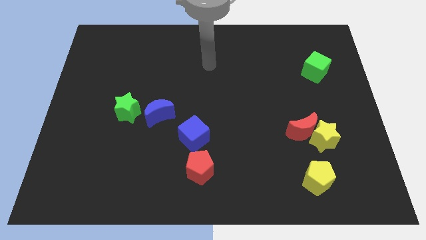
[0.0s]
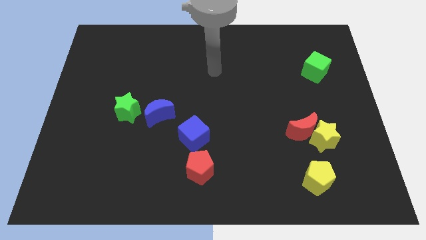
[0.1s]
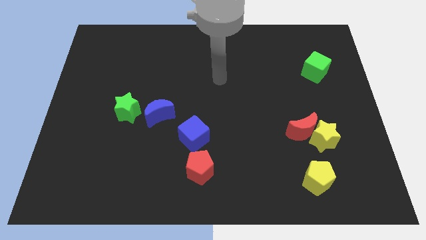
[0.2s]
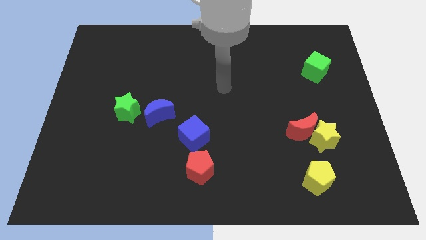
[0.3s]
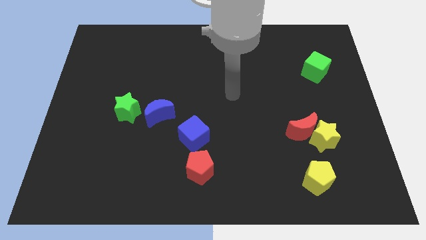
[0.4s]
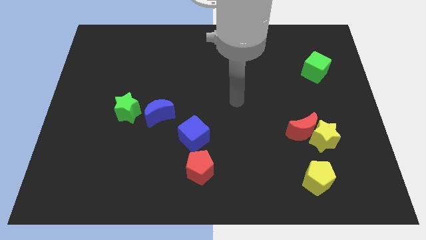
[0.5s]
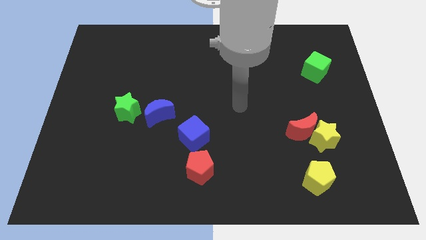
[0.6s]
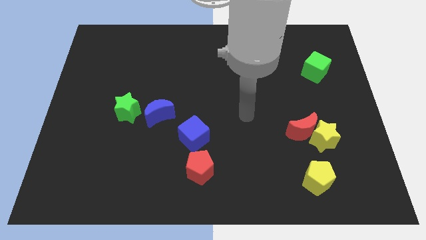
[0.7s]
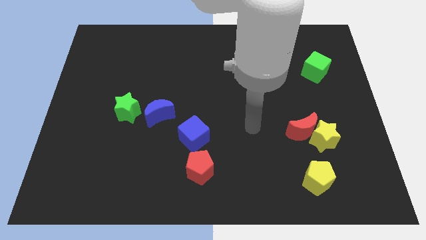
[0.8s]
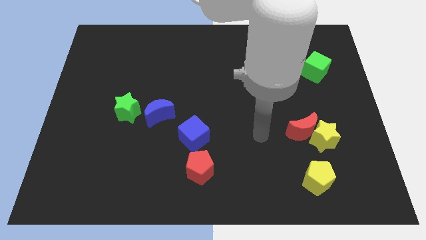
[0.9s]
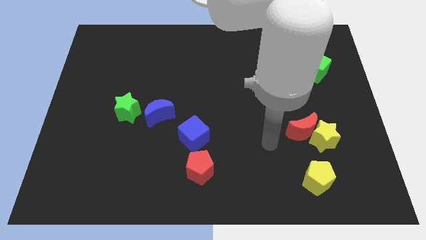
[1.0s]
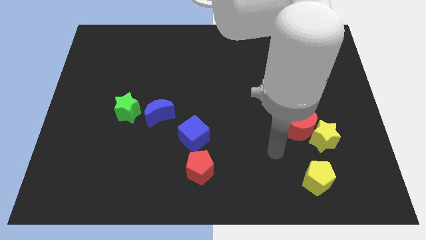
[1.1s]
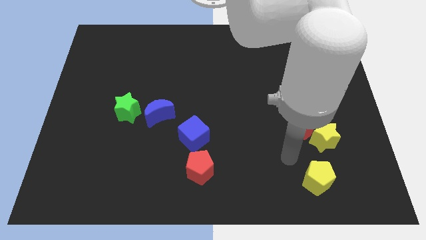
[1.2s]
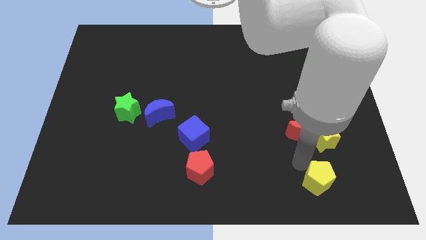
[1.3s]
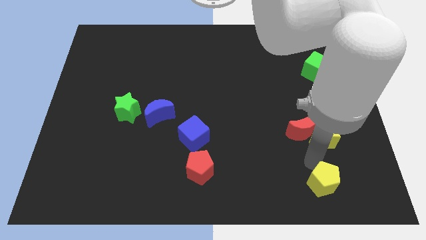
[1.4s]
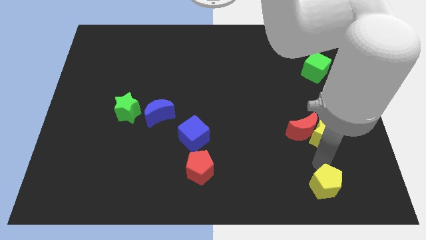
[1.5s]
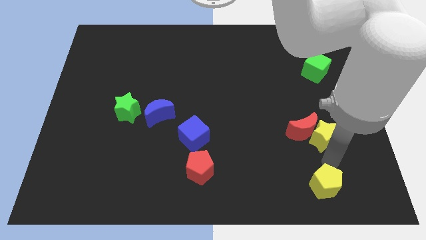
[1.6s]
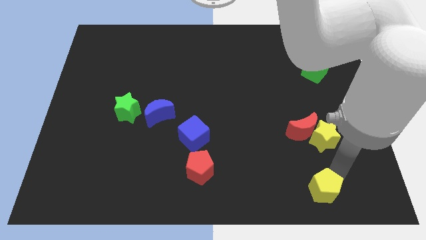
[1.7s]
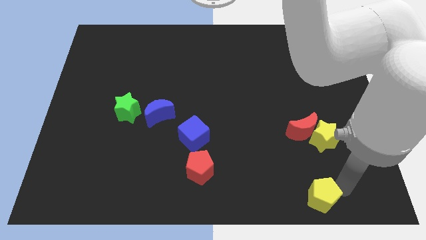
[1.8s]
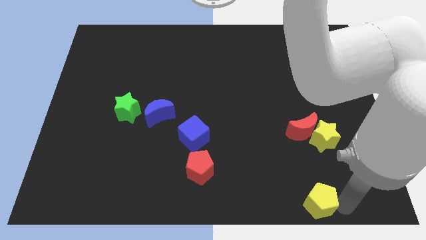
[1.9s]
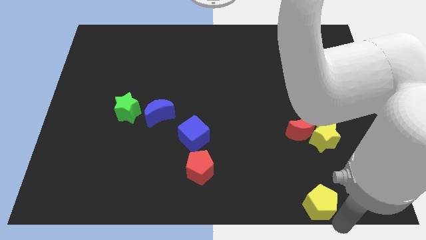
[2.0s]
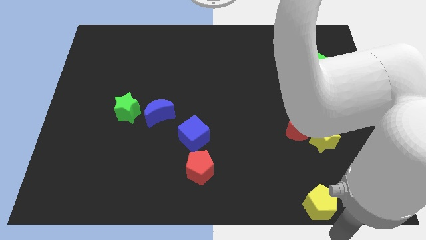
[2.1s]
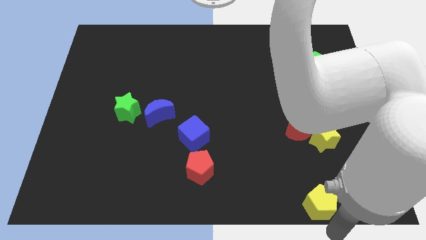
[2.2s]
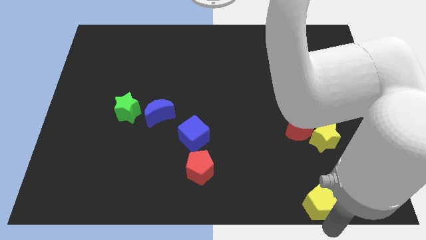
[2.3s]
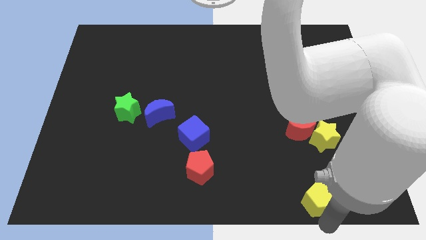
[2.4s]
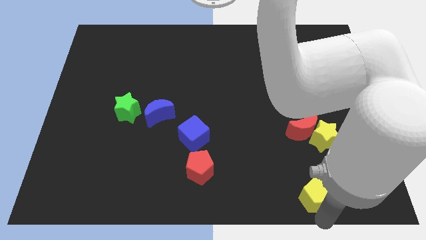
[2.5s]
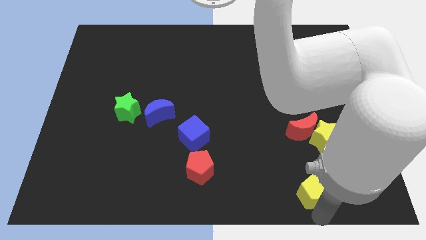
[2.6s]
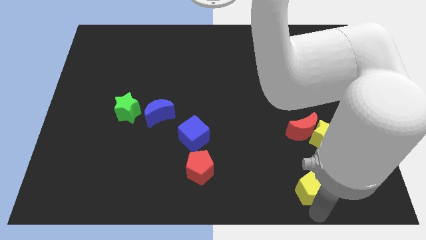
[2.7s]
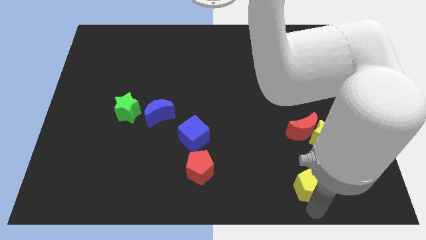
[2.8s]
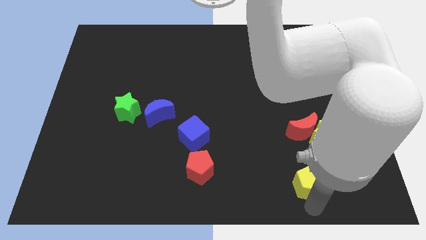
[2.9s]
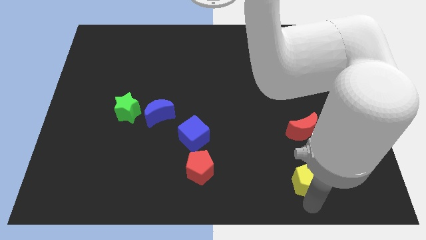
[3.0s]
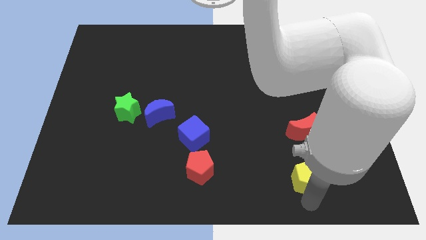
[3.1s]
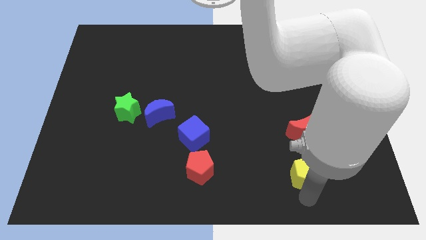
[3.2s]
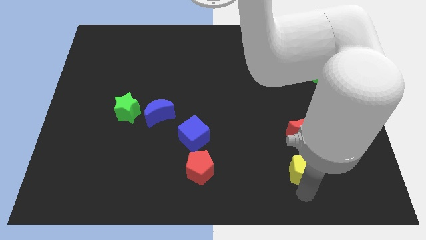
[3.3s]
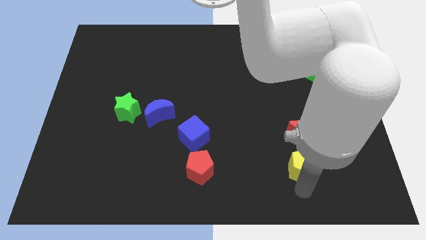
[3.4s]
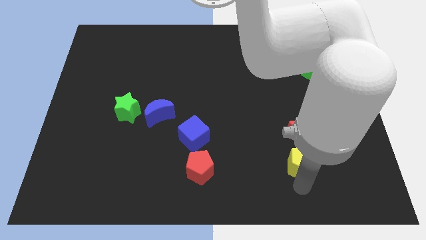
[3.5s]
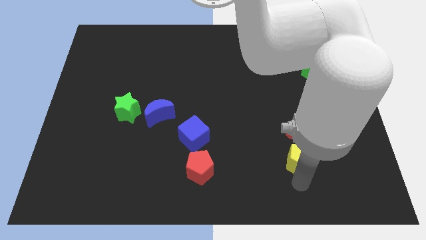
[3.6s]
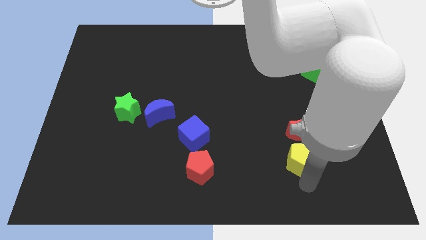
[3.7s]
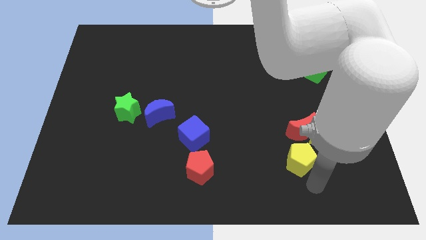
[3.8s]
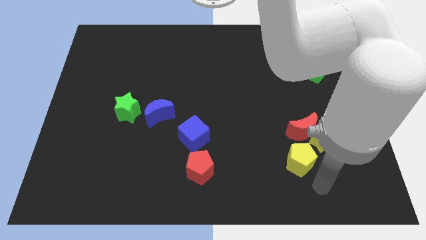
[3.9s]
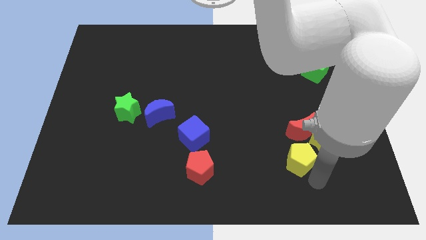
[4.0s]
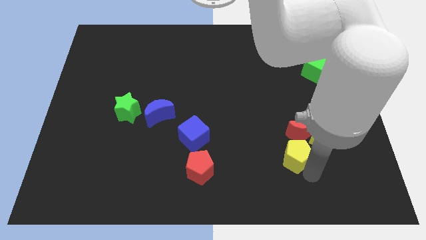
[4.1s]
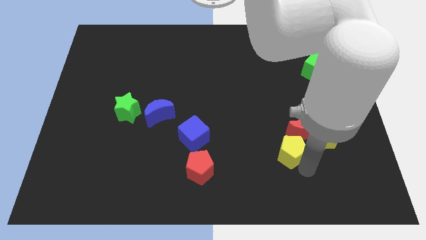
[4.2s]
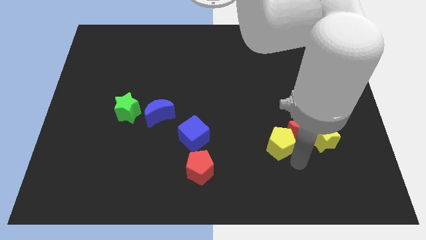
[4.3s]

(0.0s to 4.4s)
slightly slide the yellow pentagon up

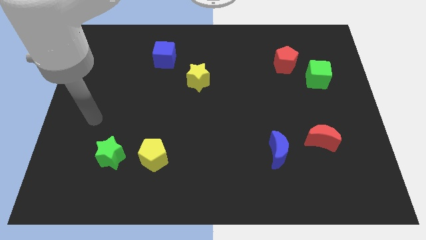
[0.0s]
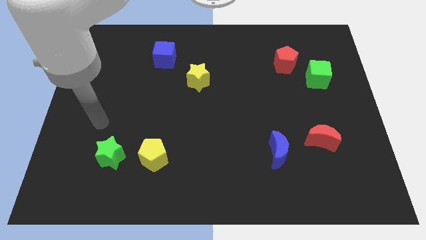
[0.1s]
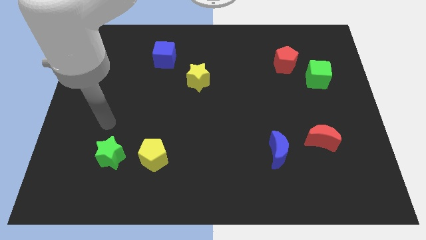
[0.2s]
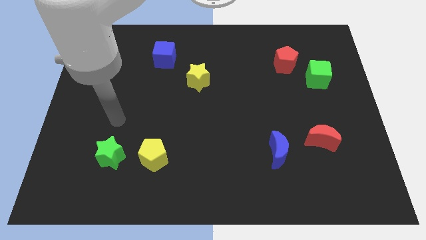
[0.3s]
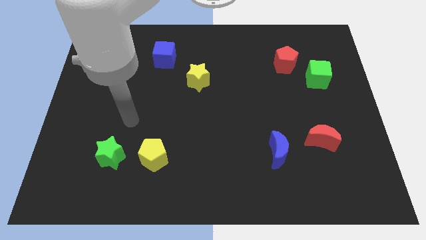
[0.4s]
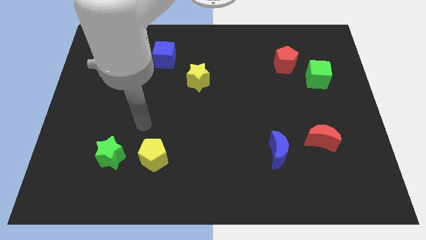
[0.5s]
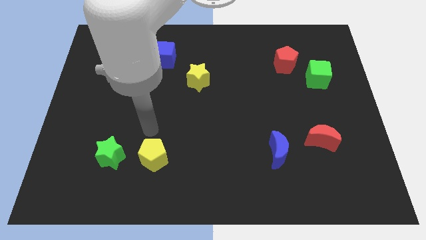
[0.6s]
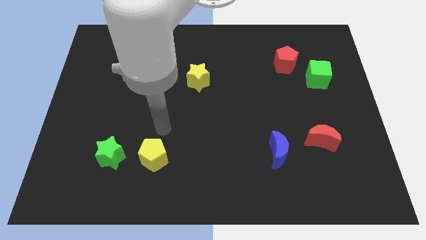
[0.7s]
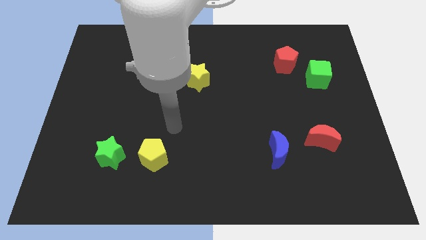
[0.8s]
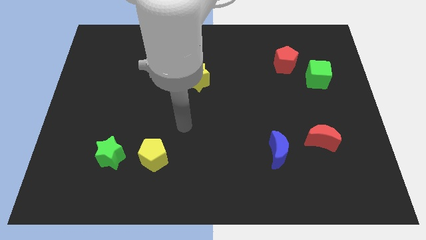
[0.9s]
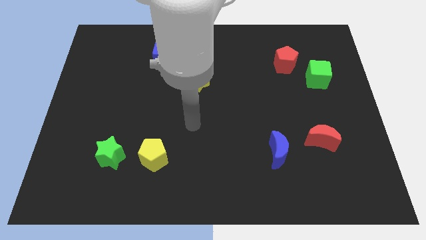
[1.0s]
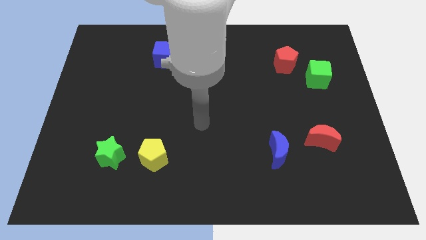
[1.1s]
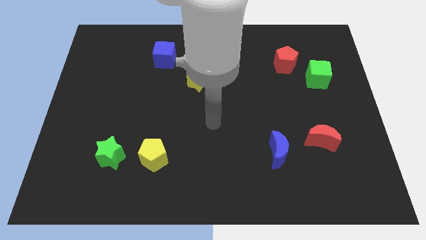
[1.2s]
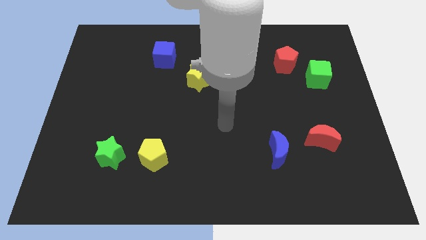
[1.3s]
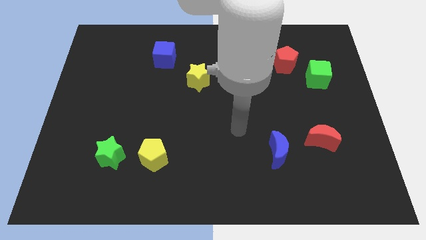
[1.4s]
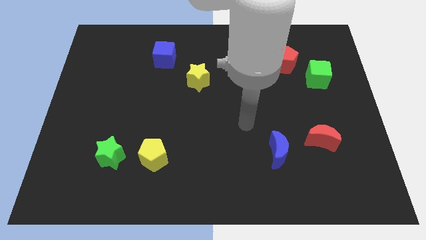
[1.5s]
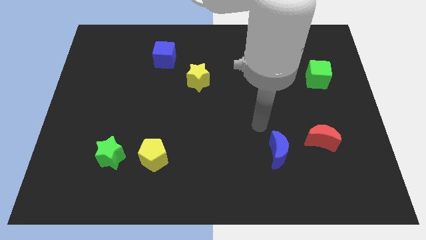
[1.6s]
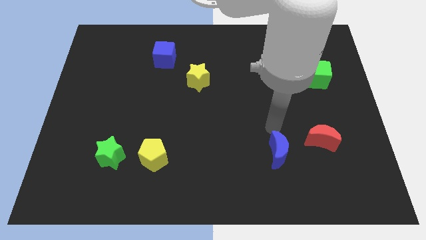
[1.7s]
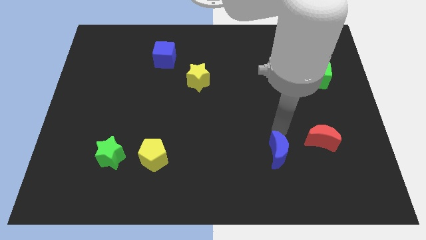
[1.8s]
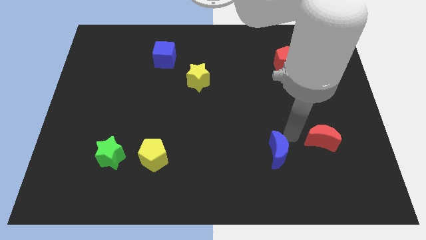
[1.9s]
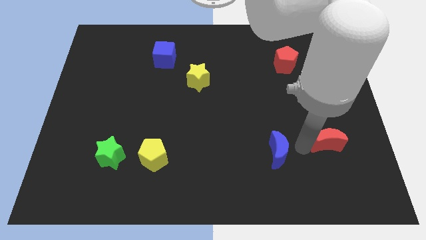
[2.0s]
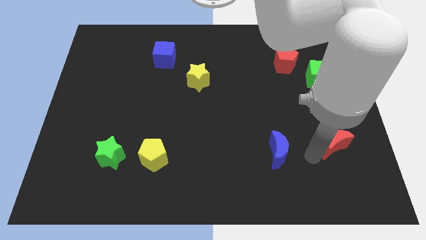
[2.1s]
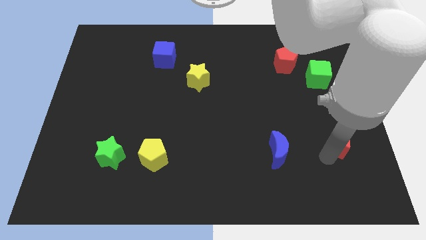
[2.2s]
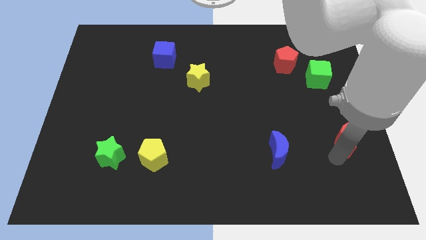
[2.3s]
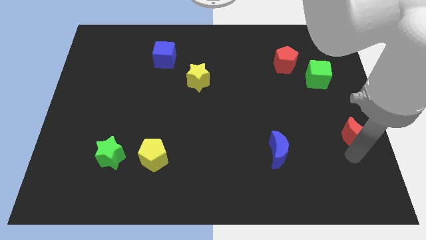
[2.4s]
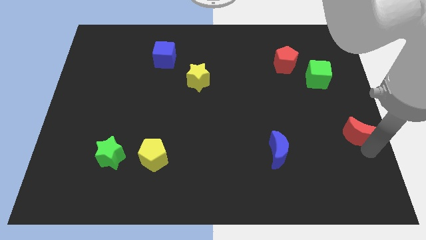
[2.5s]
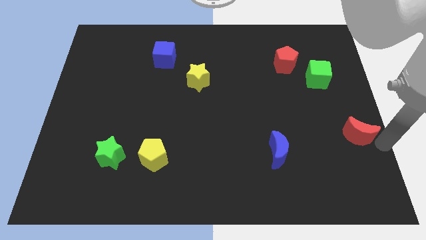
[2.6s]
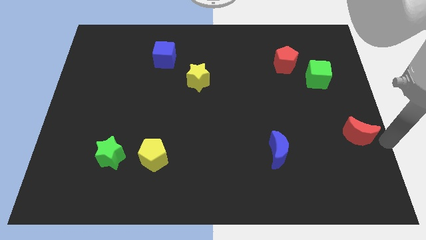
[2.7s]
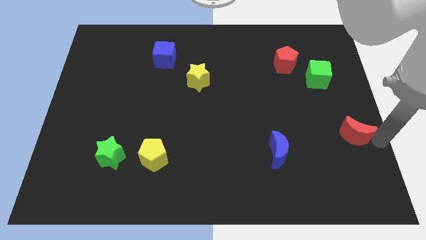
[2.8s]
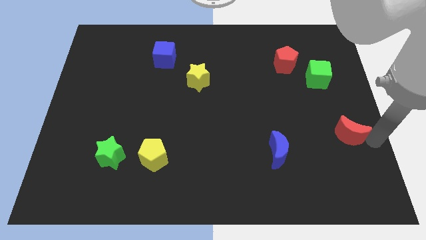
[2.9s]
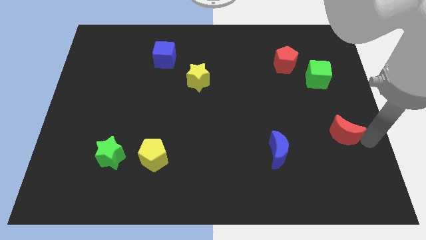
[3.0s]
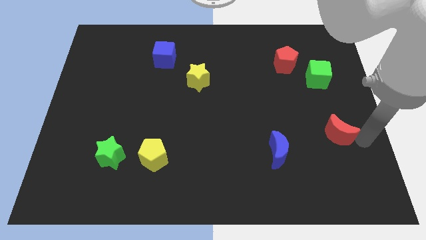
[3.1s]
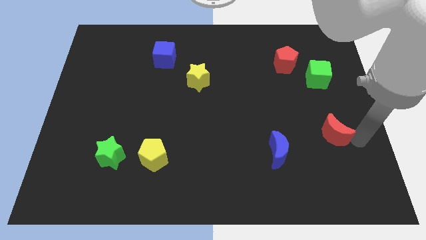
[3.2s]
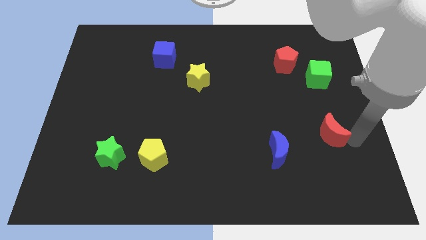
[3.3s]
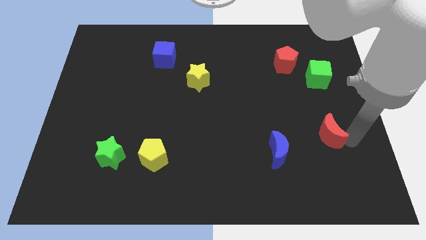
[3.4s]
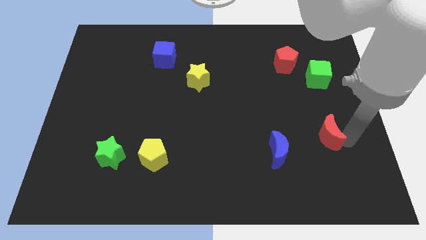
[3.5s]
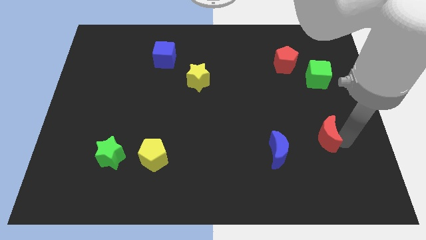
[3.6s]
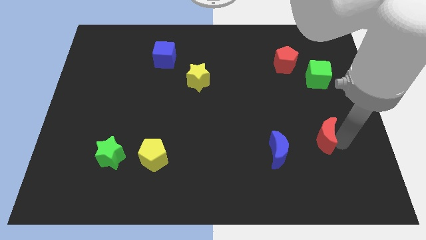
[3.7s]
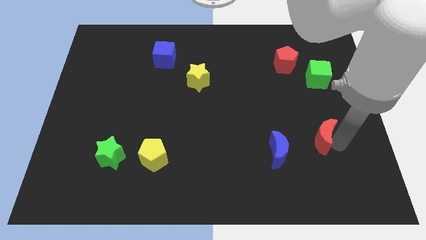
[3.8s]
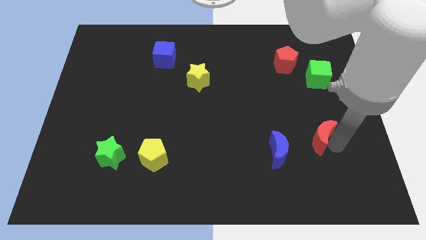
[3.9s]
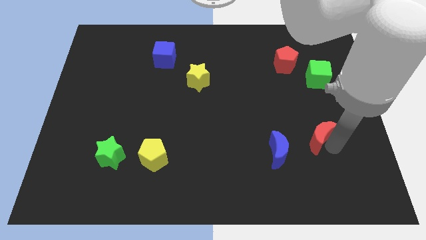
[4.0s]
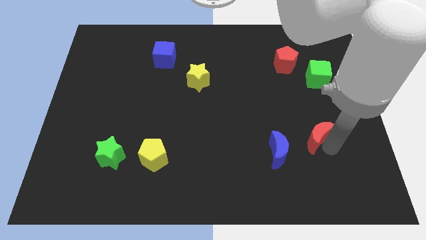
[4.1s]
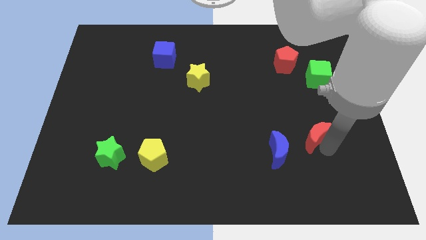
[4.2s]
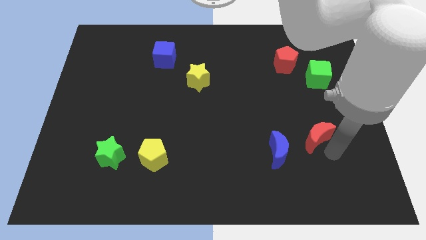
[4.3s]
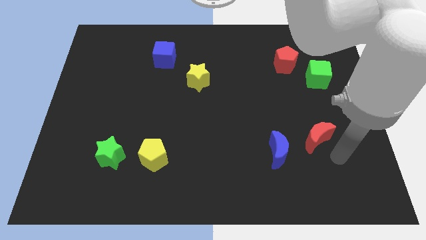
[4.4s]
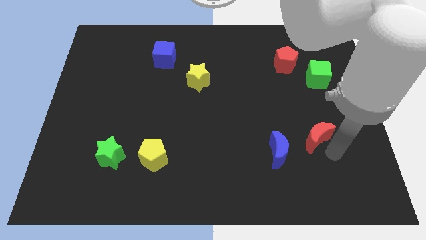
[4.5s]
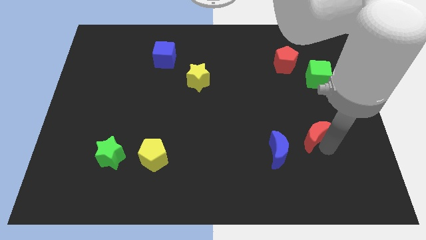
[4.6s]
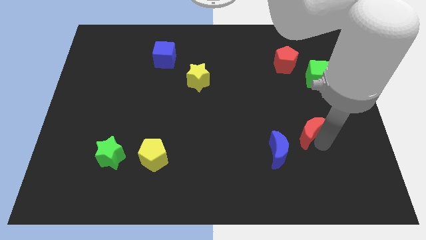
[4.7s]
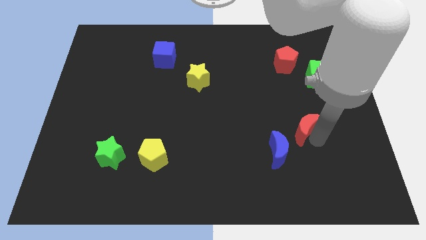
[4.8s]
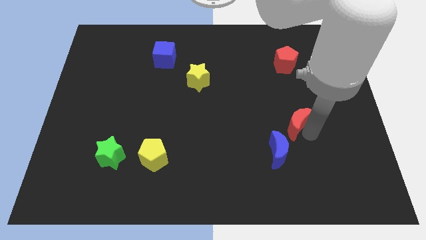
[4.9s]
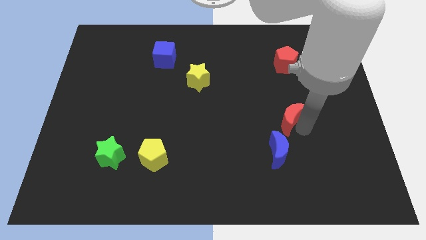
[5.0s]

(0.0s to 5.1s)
slightly move the red moon upwards and left diagonally
